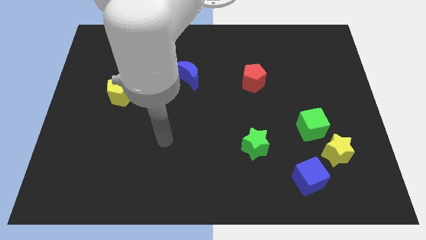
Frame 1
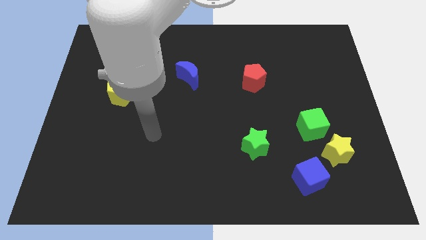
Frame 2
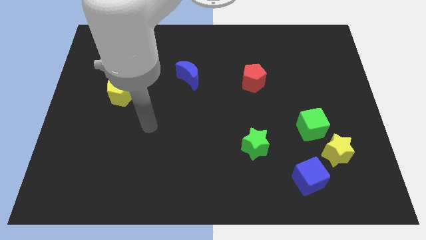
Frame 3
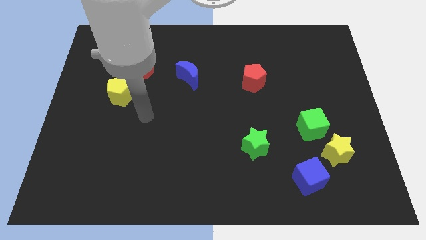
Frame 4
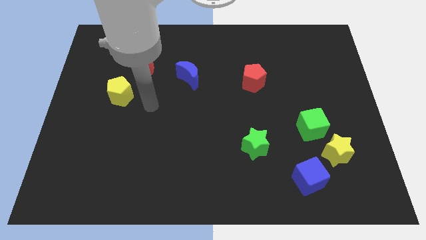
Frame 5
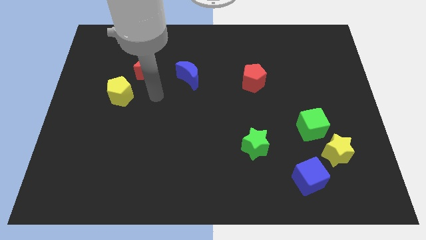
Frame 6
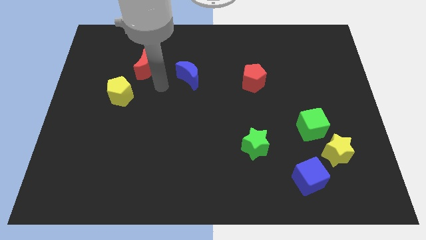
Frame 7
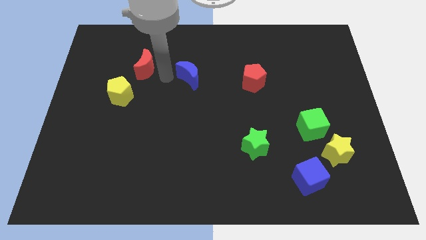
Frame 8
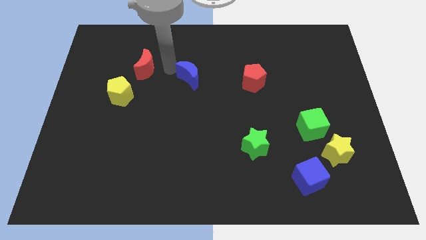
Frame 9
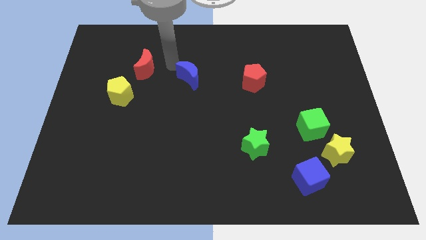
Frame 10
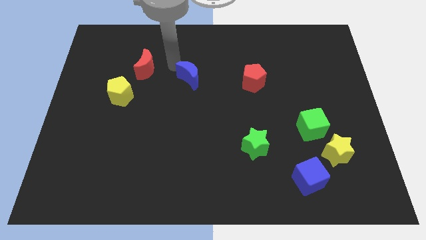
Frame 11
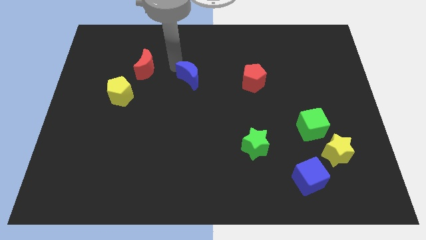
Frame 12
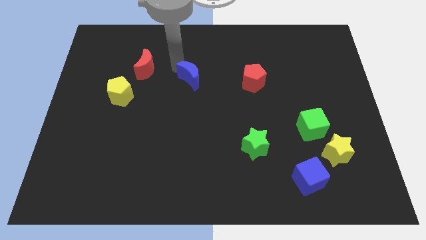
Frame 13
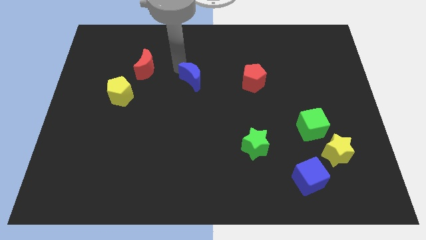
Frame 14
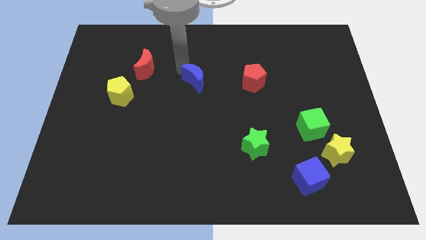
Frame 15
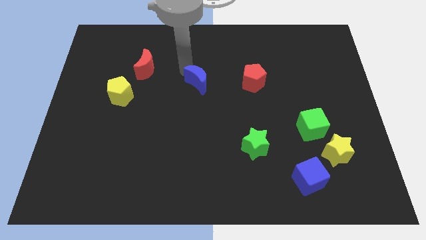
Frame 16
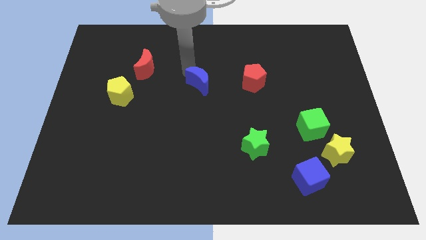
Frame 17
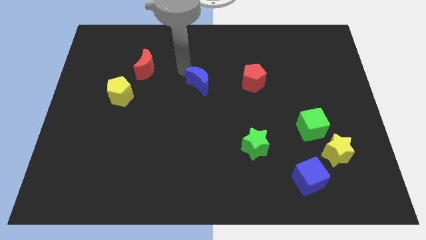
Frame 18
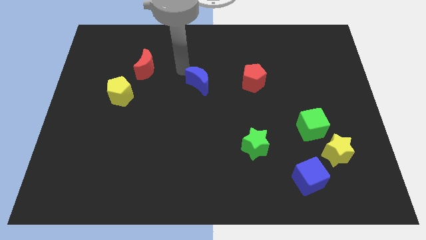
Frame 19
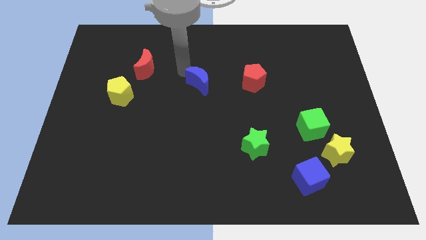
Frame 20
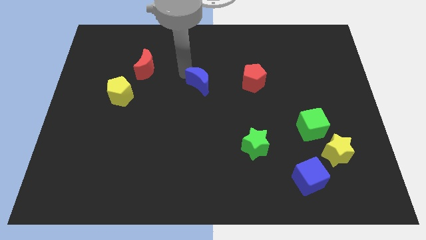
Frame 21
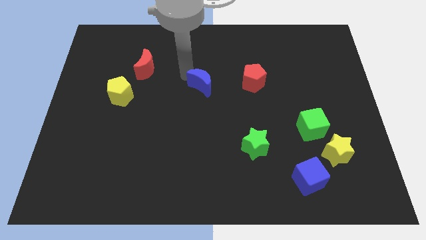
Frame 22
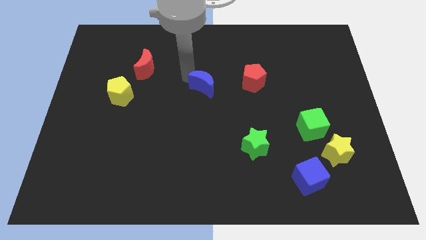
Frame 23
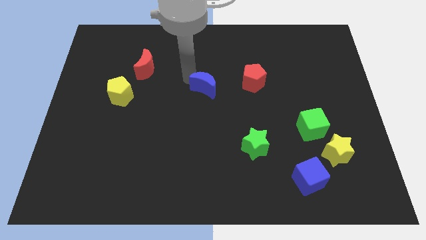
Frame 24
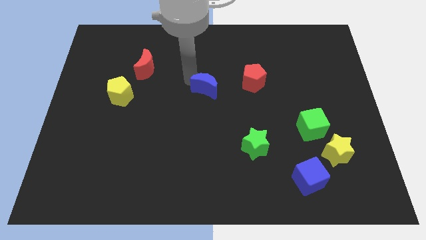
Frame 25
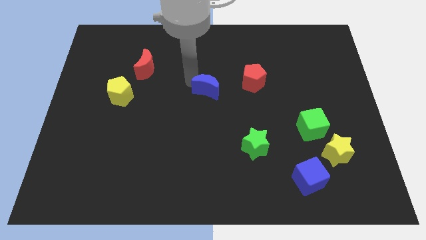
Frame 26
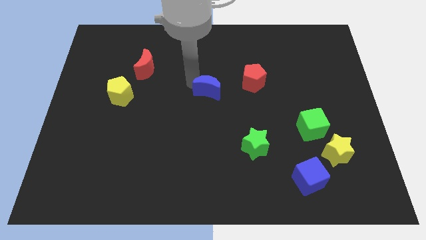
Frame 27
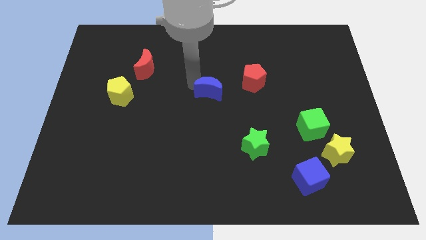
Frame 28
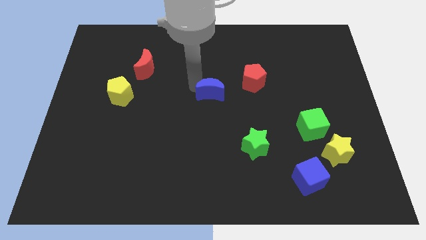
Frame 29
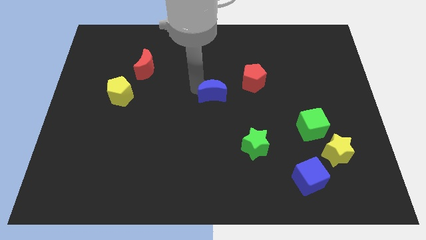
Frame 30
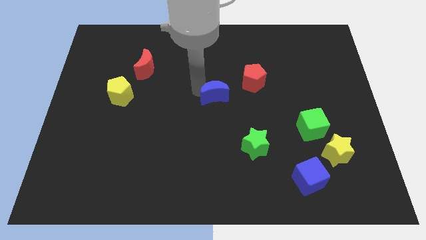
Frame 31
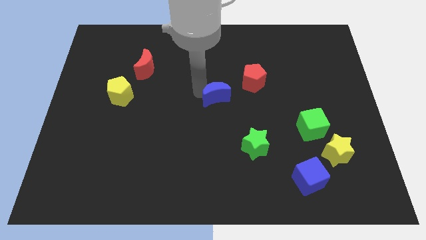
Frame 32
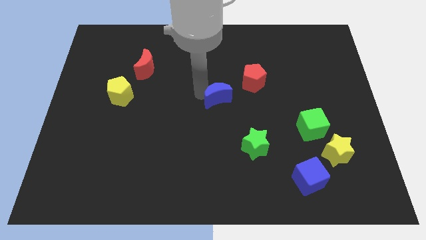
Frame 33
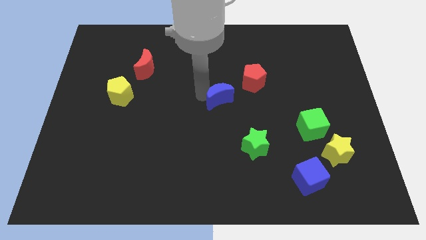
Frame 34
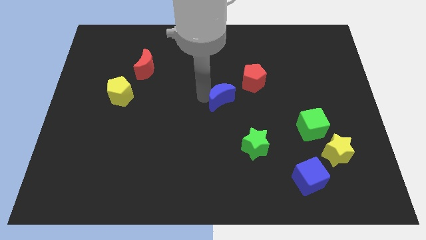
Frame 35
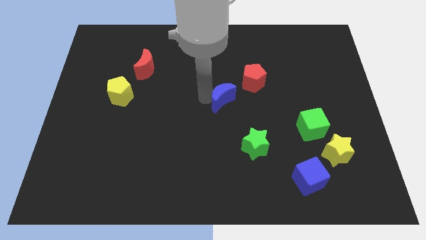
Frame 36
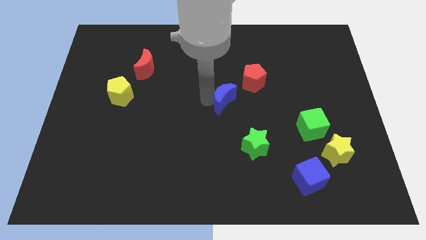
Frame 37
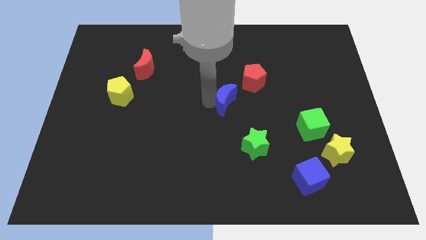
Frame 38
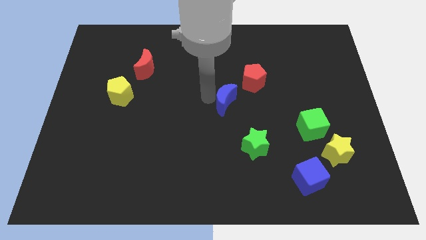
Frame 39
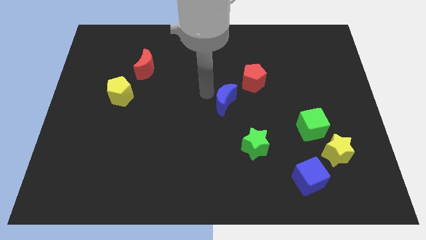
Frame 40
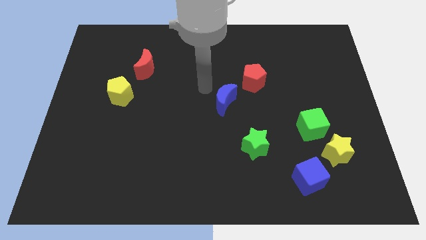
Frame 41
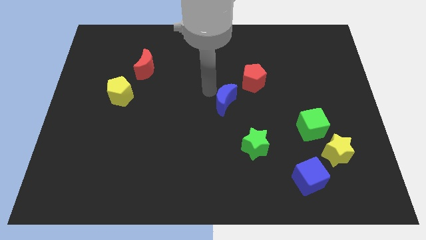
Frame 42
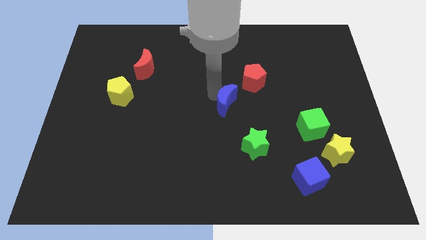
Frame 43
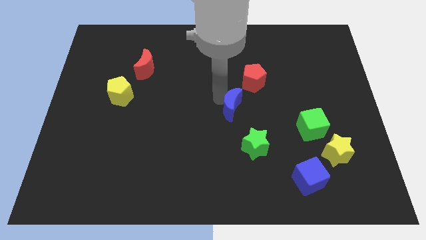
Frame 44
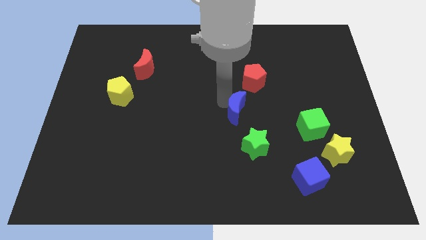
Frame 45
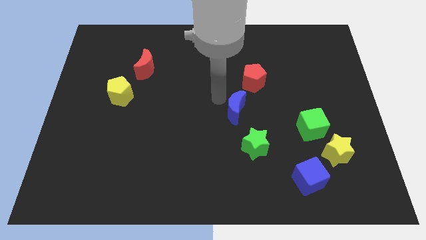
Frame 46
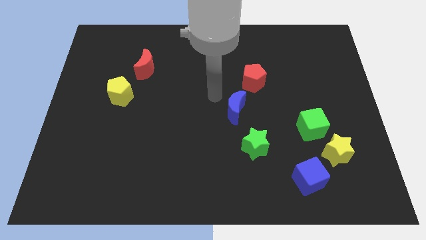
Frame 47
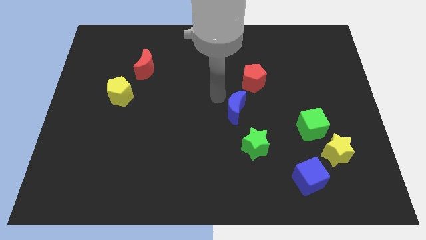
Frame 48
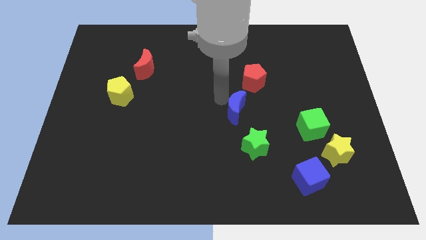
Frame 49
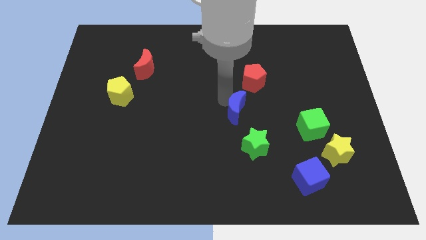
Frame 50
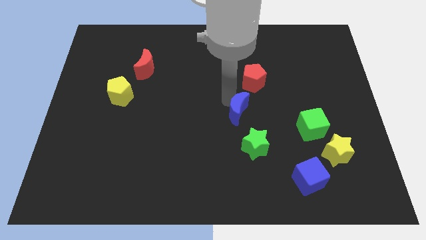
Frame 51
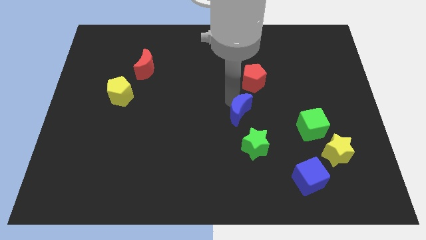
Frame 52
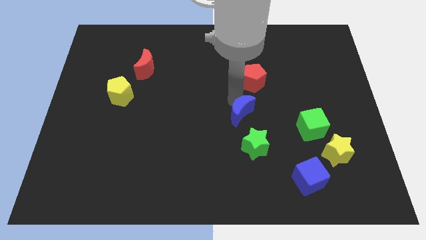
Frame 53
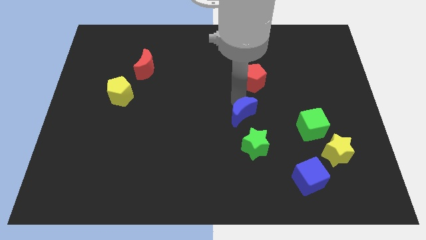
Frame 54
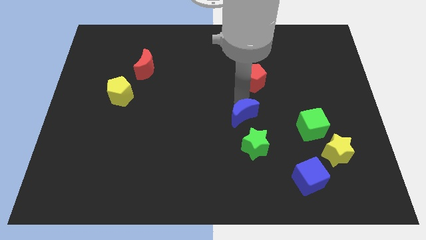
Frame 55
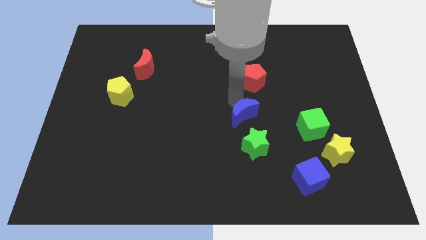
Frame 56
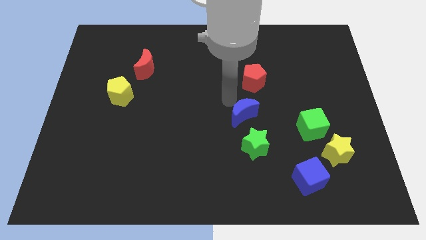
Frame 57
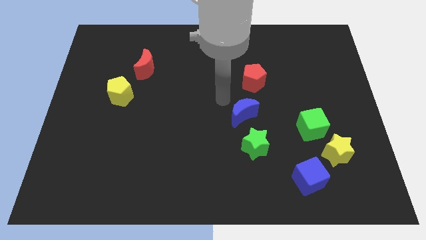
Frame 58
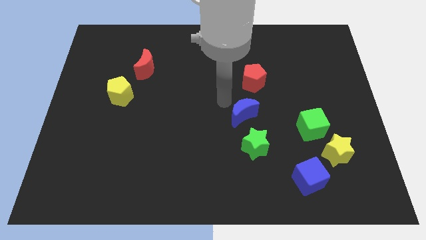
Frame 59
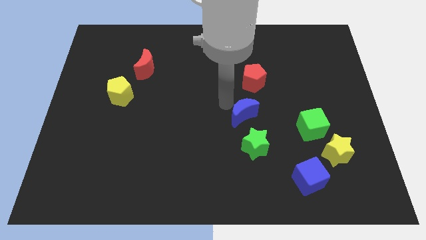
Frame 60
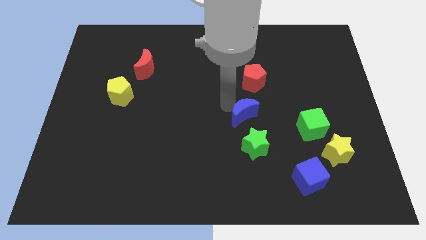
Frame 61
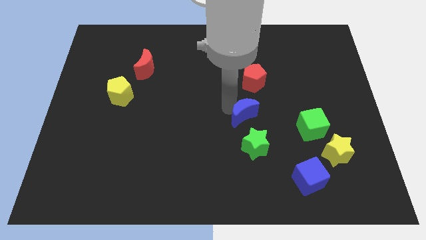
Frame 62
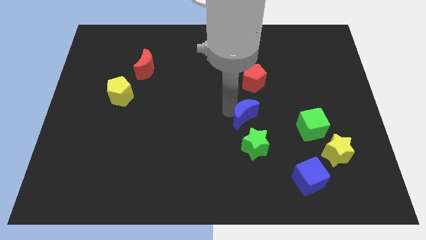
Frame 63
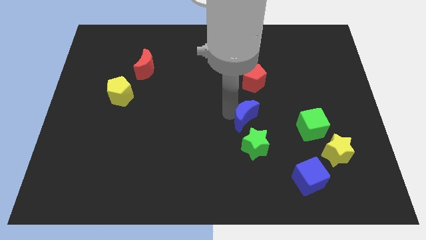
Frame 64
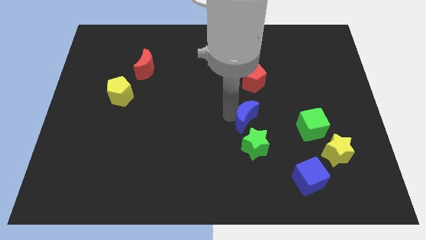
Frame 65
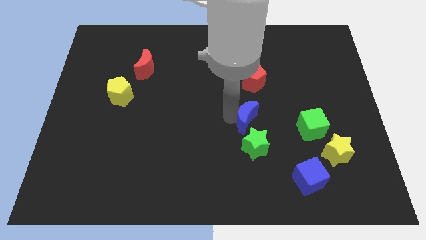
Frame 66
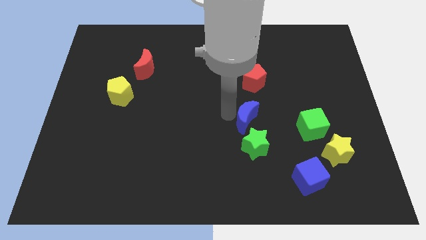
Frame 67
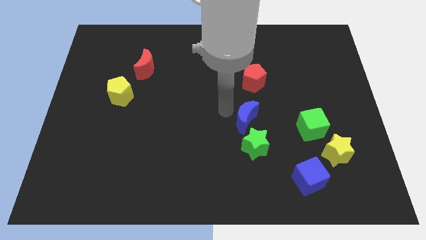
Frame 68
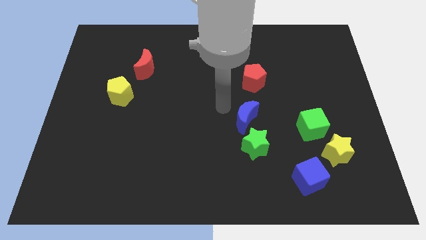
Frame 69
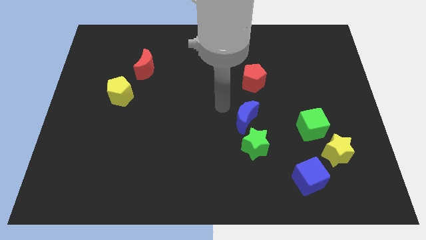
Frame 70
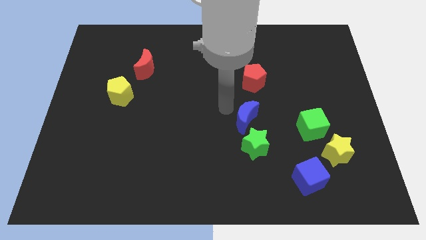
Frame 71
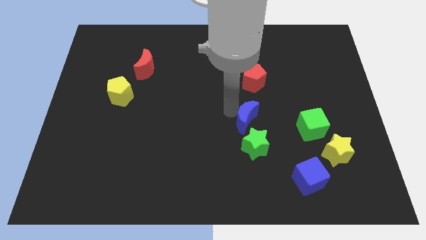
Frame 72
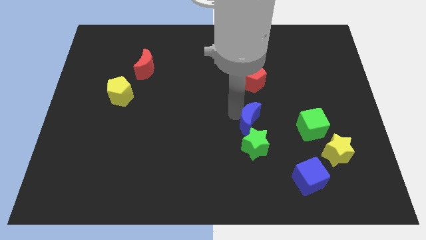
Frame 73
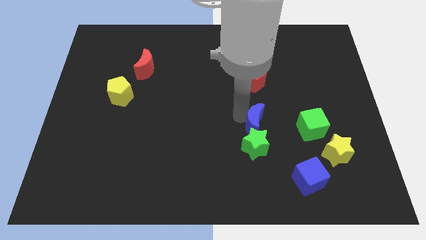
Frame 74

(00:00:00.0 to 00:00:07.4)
slide the blue moon down and then right

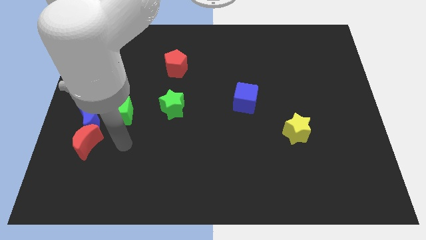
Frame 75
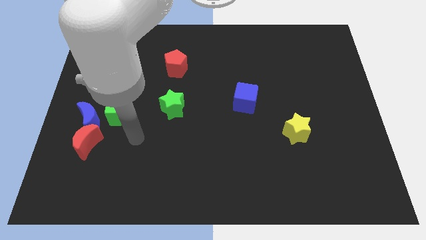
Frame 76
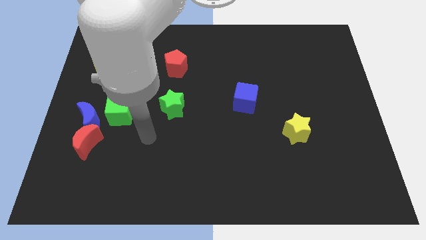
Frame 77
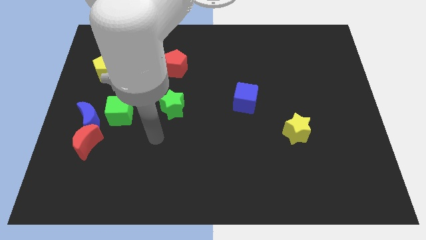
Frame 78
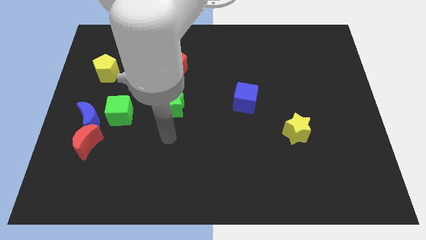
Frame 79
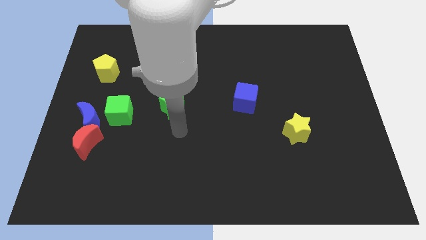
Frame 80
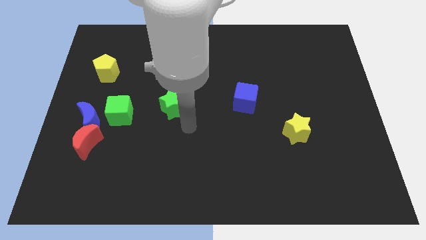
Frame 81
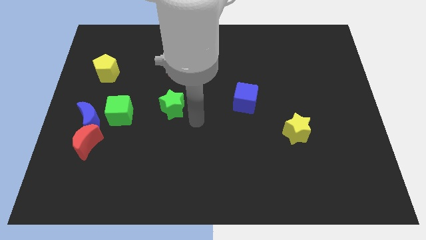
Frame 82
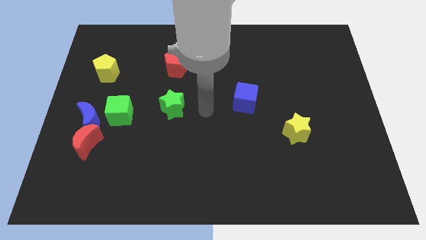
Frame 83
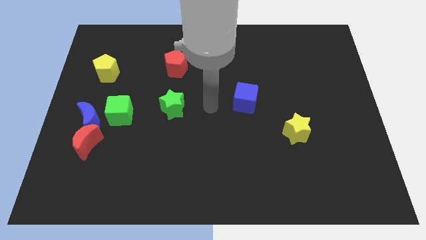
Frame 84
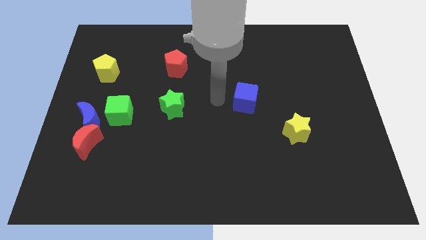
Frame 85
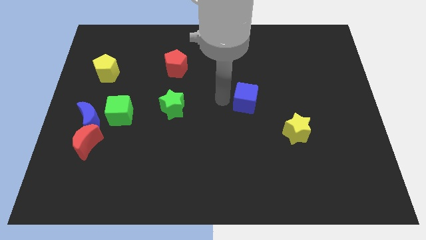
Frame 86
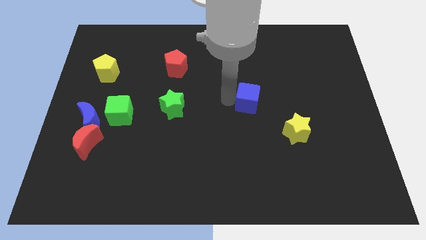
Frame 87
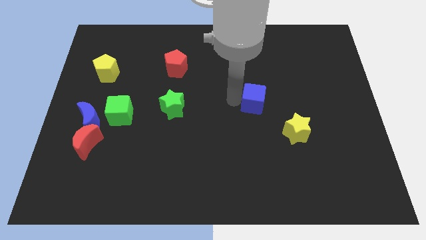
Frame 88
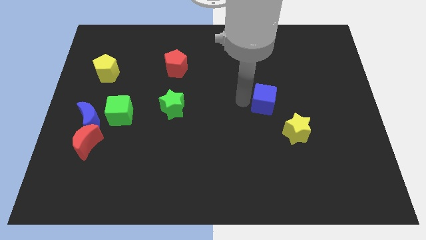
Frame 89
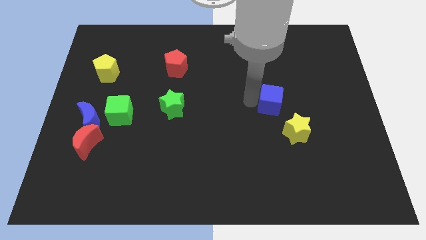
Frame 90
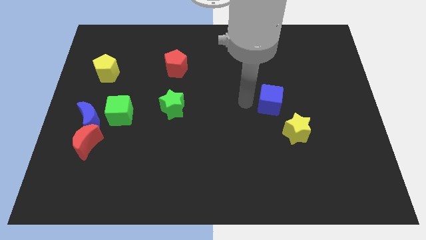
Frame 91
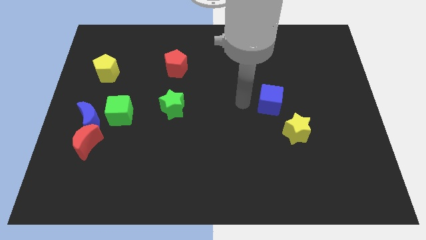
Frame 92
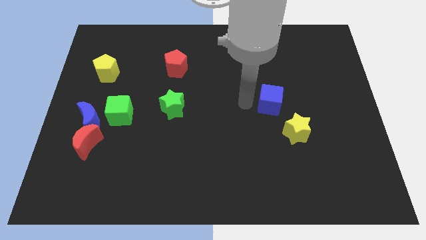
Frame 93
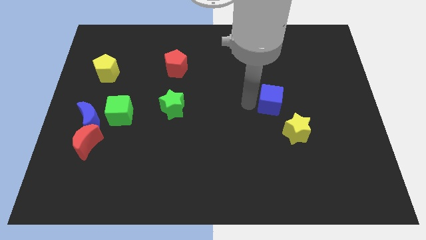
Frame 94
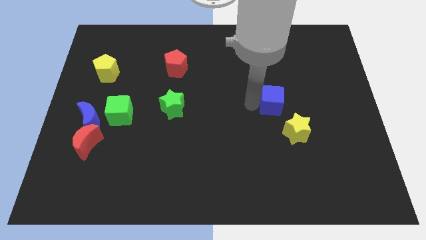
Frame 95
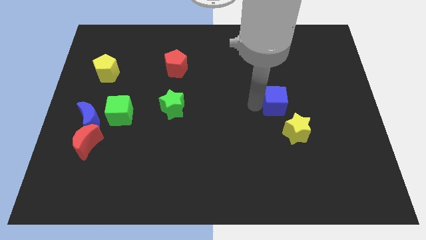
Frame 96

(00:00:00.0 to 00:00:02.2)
move the blue cube to the right slightly
